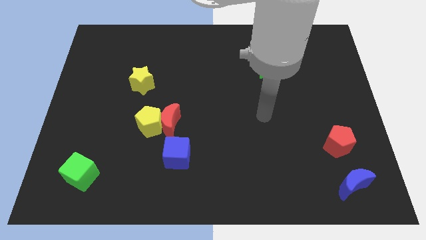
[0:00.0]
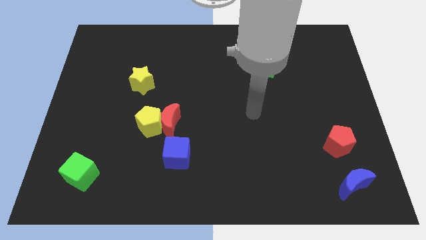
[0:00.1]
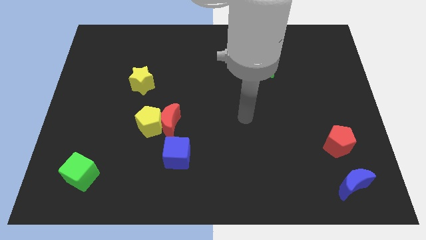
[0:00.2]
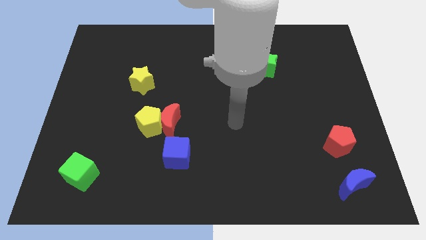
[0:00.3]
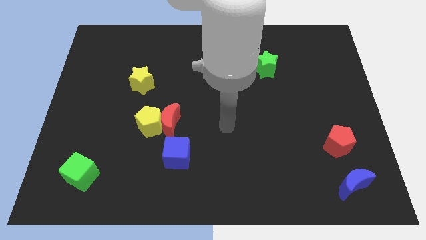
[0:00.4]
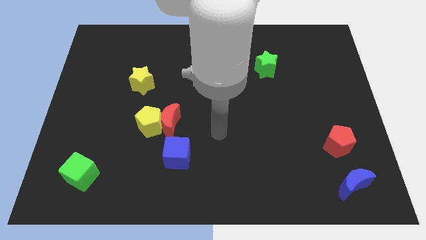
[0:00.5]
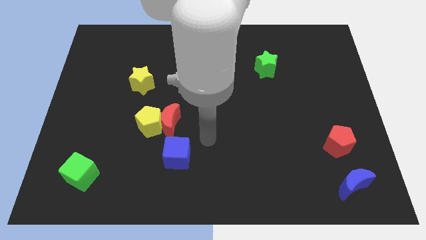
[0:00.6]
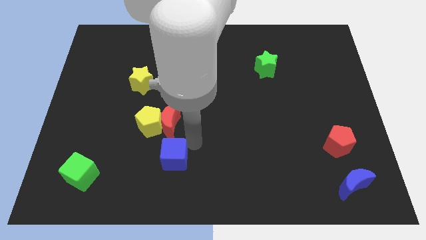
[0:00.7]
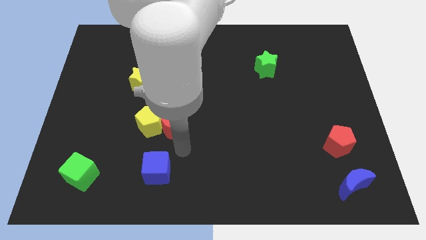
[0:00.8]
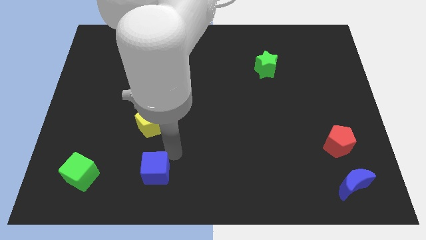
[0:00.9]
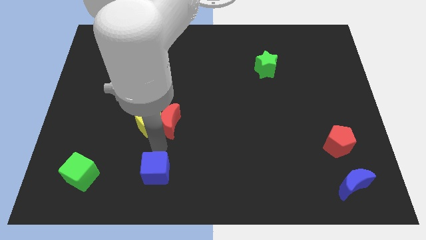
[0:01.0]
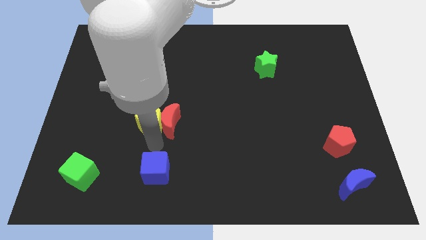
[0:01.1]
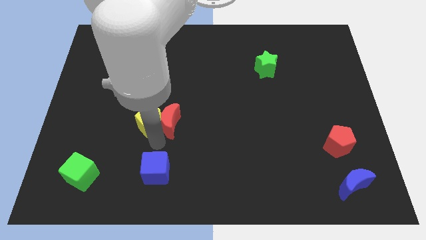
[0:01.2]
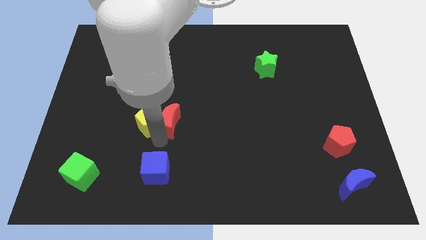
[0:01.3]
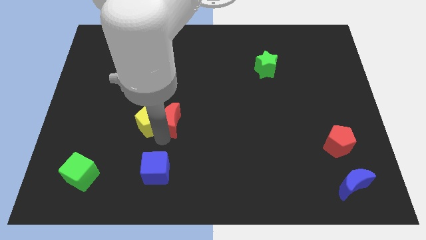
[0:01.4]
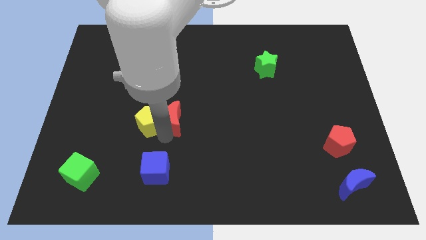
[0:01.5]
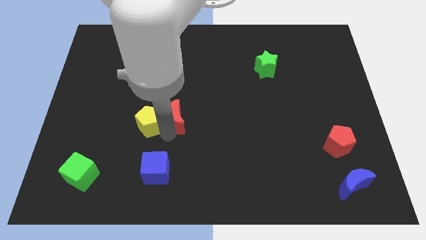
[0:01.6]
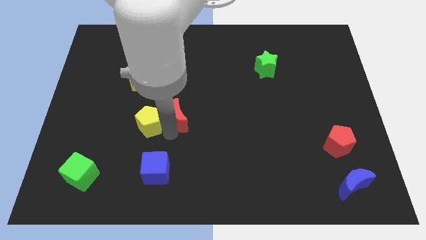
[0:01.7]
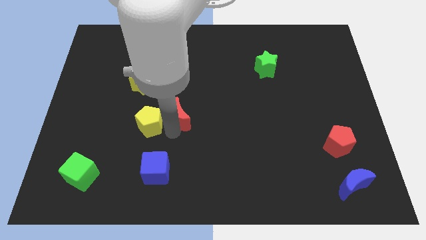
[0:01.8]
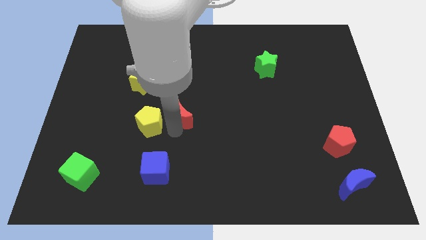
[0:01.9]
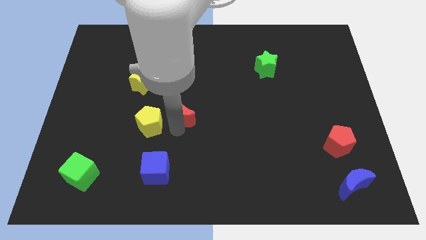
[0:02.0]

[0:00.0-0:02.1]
pull the red moon apart from the yellow pentagon and blue cube

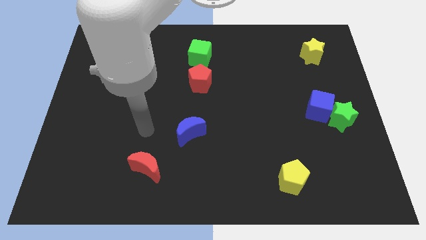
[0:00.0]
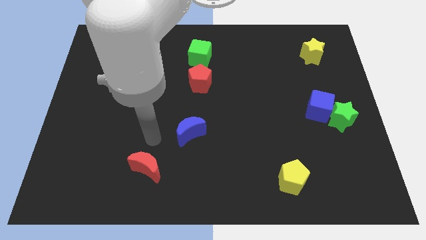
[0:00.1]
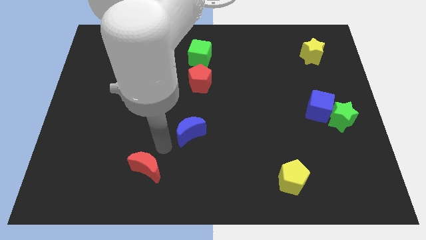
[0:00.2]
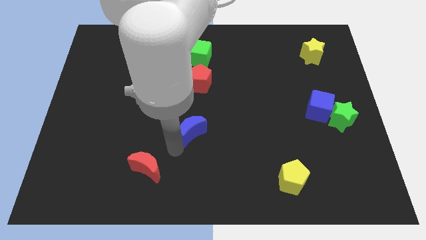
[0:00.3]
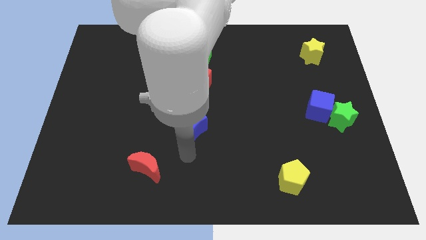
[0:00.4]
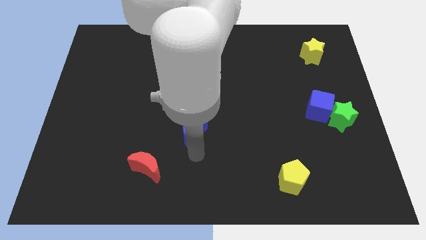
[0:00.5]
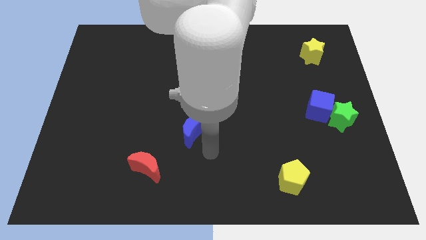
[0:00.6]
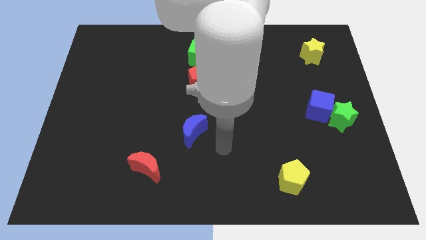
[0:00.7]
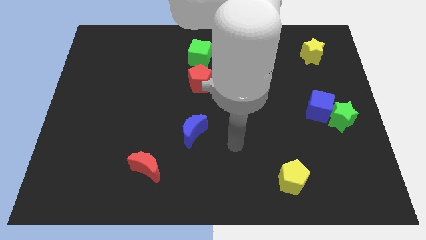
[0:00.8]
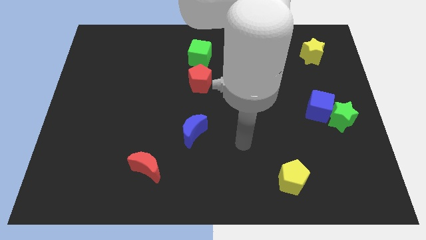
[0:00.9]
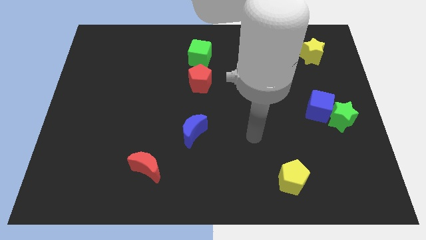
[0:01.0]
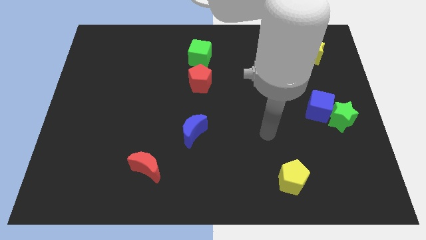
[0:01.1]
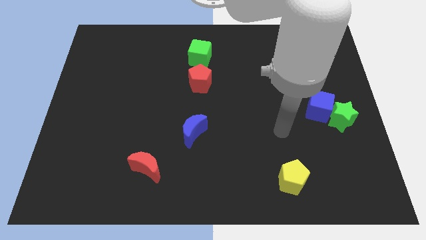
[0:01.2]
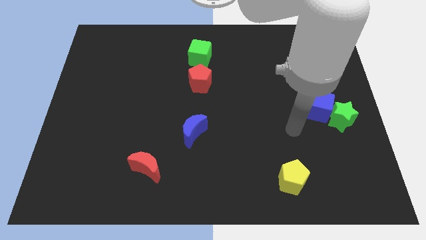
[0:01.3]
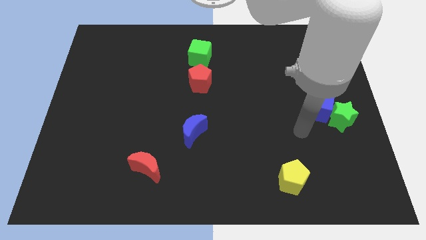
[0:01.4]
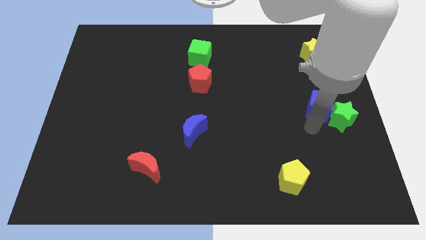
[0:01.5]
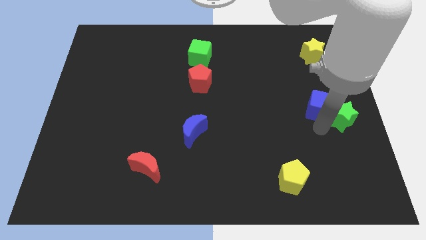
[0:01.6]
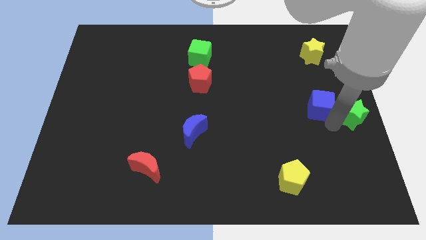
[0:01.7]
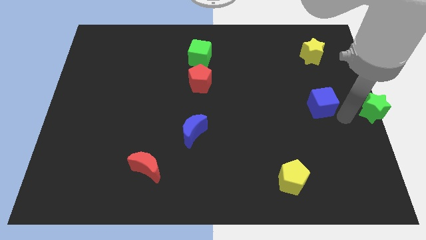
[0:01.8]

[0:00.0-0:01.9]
move the blue cube away from the green star

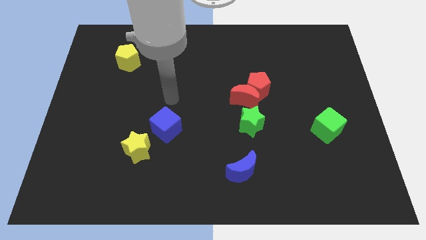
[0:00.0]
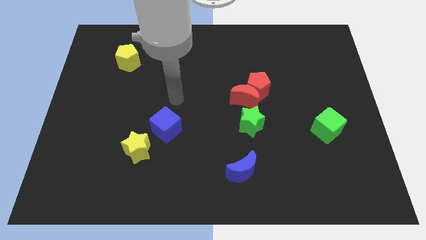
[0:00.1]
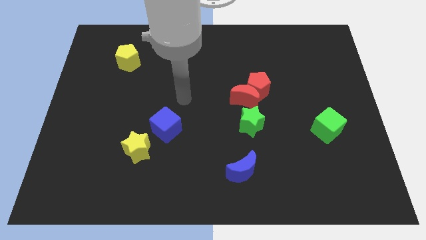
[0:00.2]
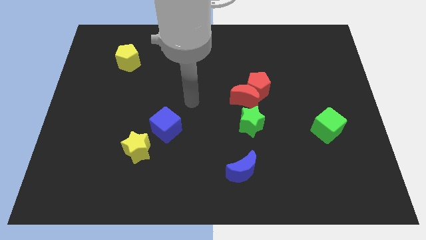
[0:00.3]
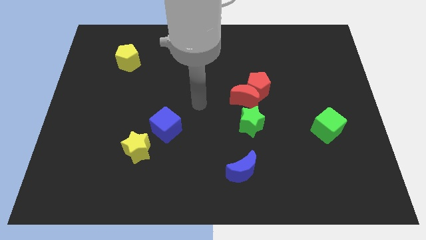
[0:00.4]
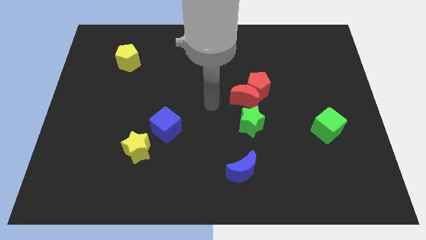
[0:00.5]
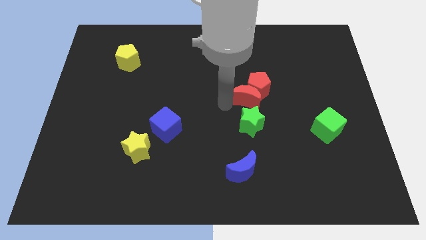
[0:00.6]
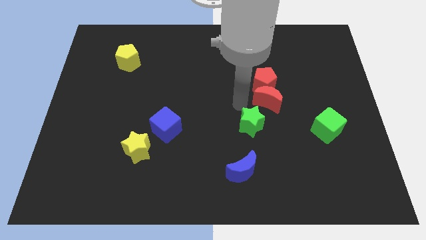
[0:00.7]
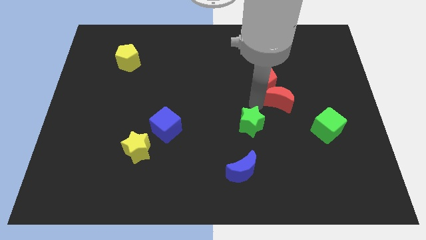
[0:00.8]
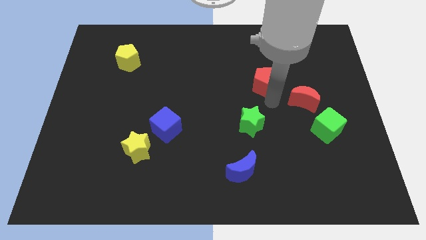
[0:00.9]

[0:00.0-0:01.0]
move the red pentagon away from the red moon

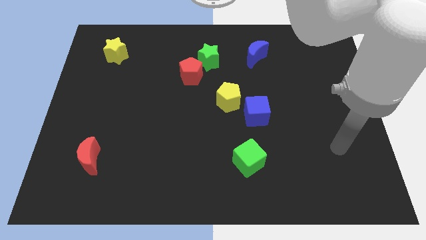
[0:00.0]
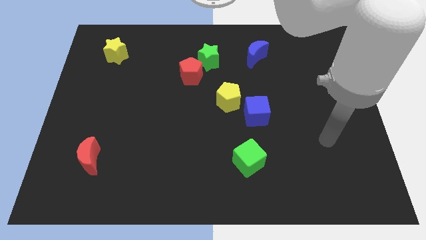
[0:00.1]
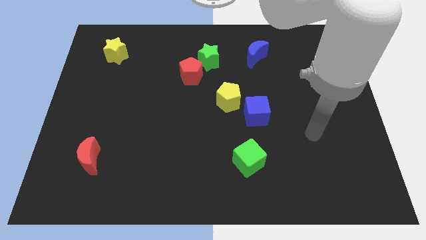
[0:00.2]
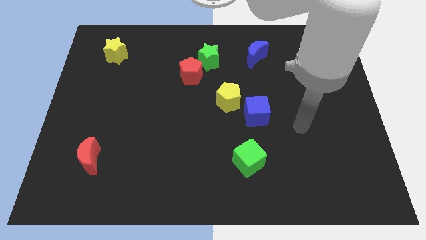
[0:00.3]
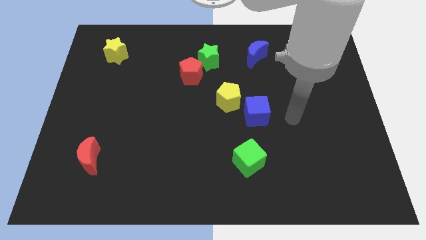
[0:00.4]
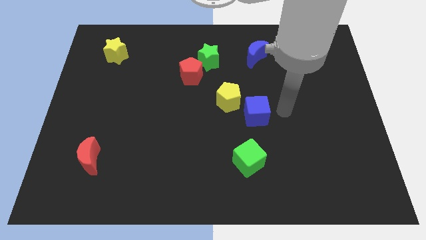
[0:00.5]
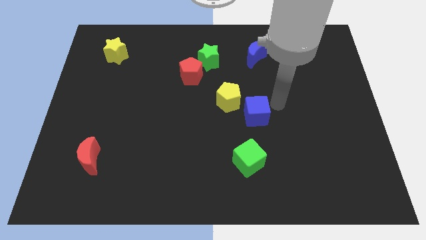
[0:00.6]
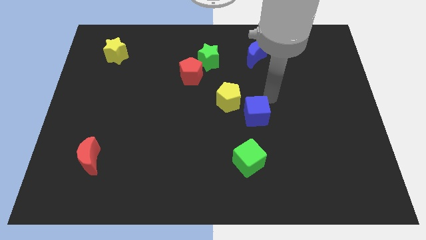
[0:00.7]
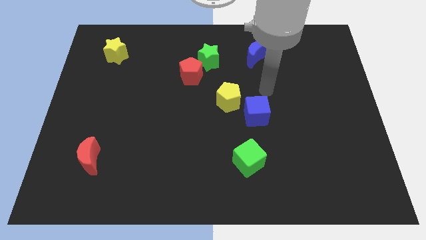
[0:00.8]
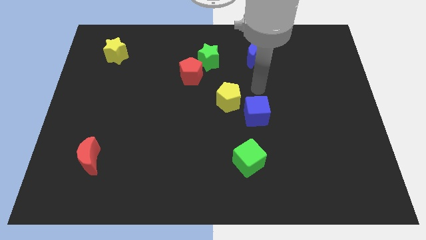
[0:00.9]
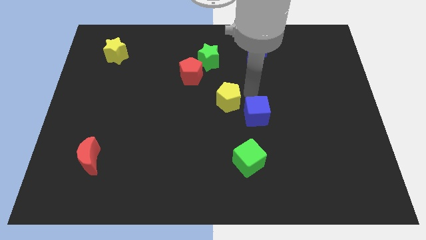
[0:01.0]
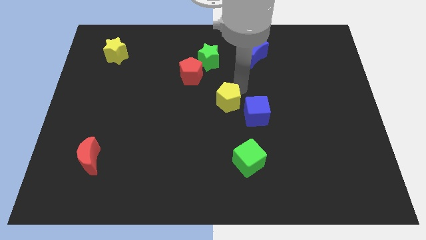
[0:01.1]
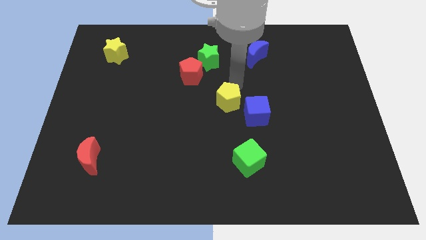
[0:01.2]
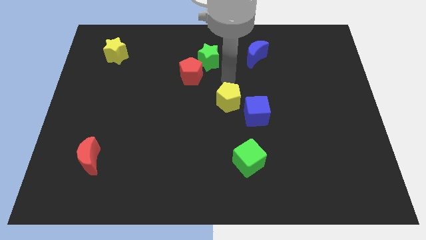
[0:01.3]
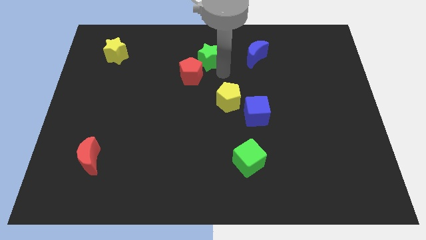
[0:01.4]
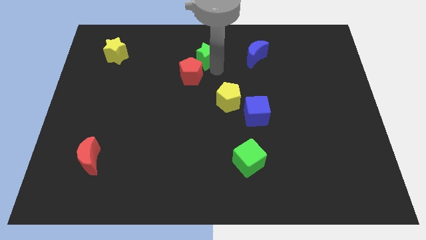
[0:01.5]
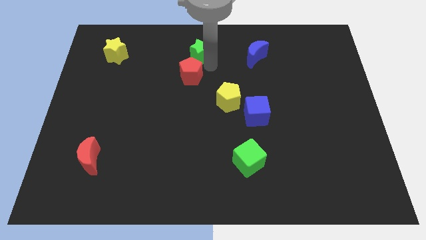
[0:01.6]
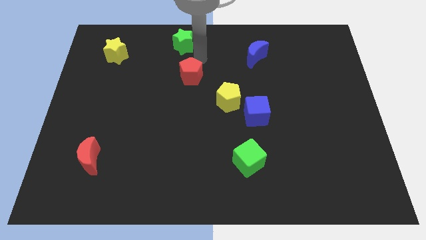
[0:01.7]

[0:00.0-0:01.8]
pull the red pentagon apart from the green star

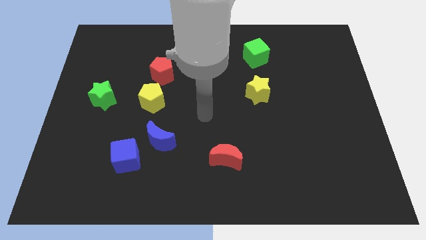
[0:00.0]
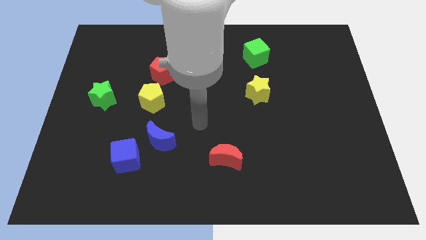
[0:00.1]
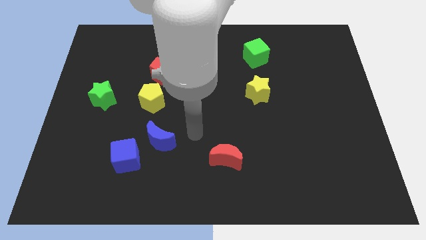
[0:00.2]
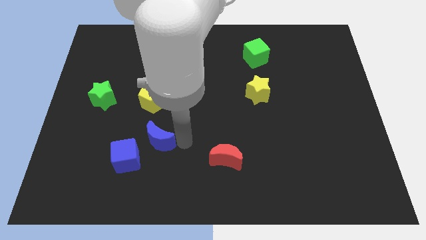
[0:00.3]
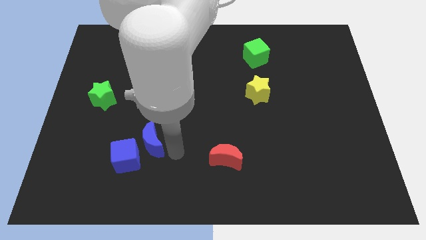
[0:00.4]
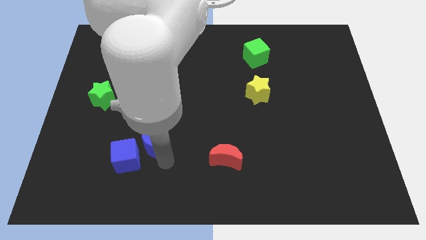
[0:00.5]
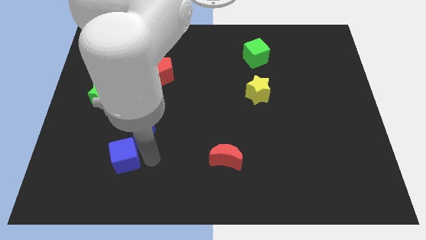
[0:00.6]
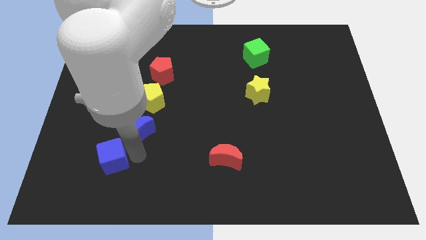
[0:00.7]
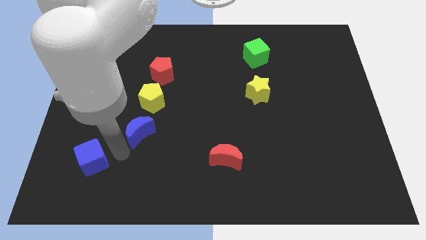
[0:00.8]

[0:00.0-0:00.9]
move the blue moon away from the blue cube

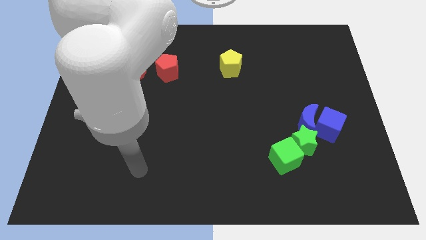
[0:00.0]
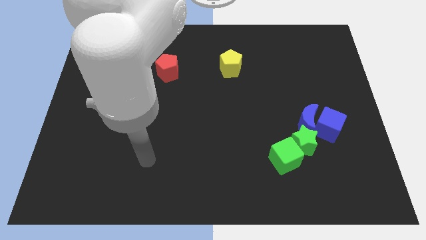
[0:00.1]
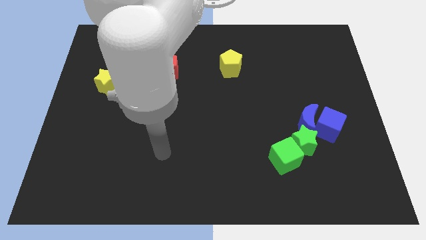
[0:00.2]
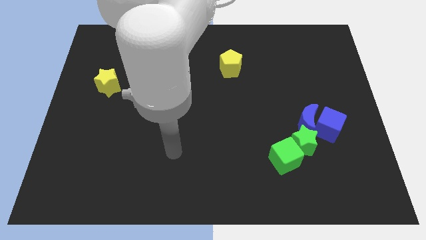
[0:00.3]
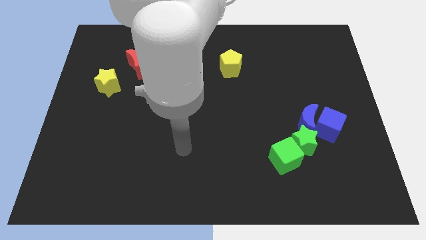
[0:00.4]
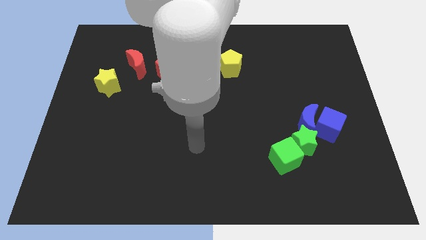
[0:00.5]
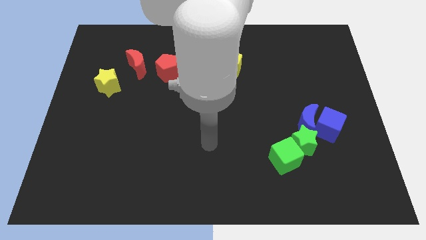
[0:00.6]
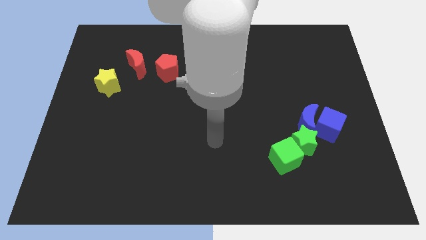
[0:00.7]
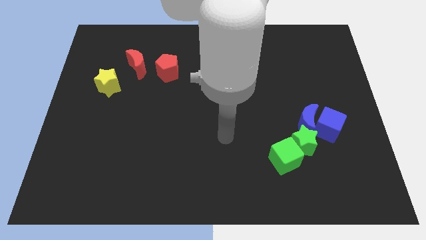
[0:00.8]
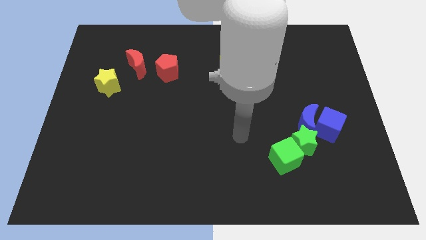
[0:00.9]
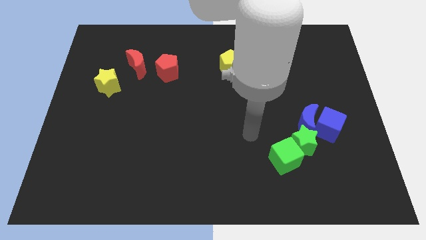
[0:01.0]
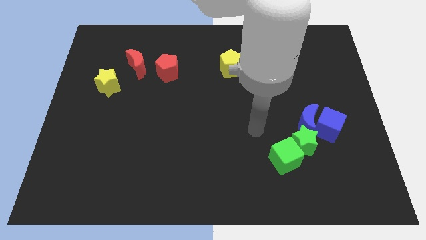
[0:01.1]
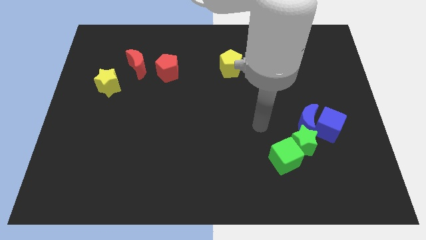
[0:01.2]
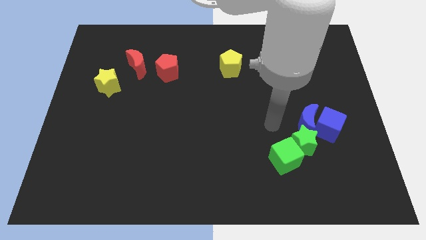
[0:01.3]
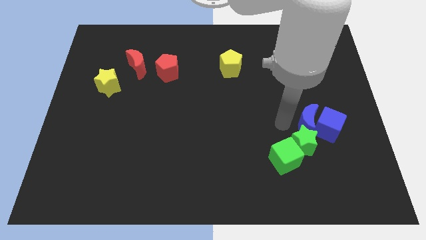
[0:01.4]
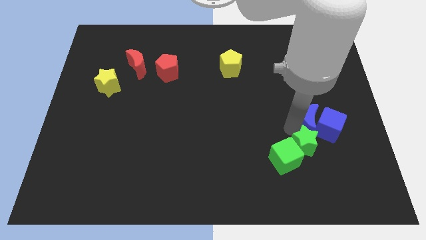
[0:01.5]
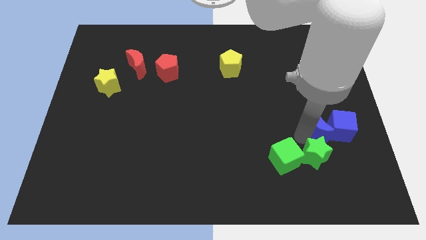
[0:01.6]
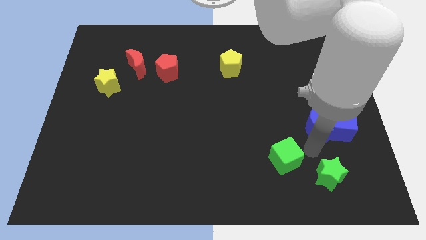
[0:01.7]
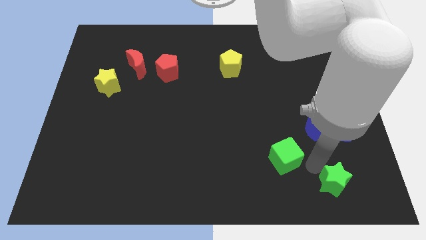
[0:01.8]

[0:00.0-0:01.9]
move the green cube away from the green star
